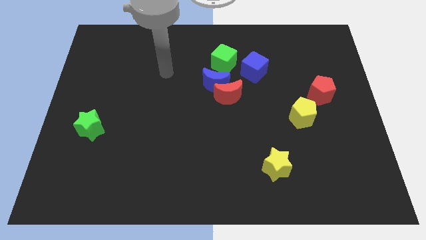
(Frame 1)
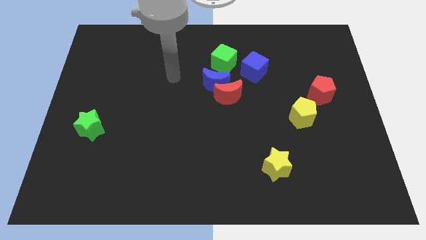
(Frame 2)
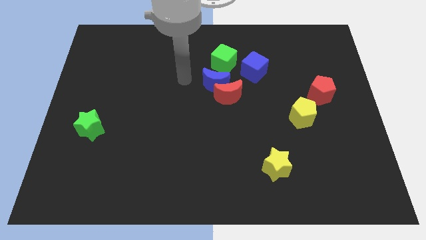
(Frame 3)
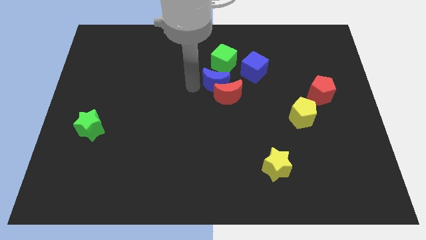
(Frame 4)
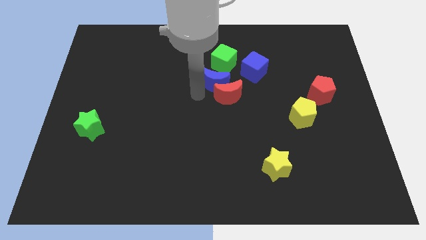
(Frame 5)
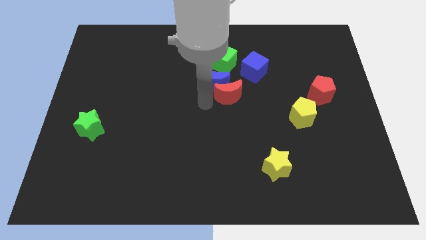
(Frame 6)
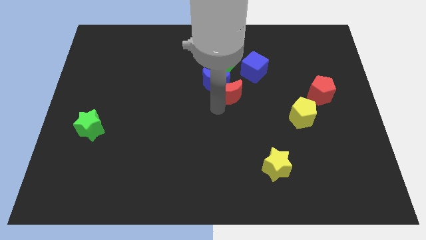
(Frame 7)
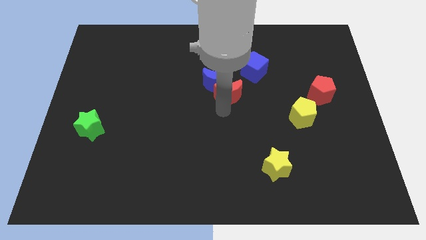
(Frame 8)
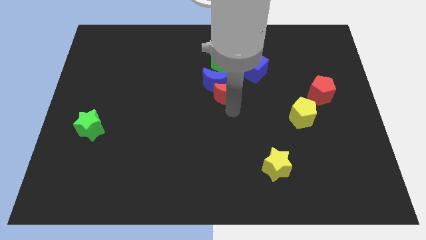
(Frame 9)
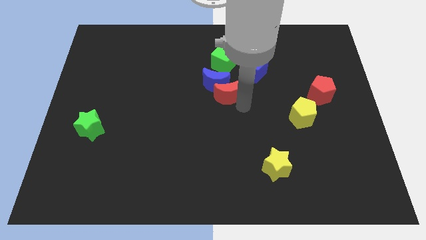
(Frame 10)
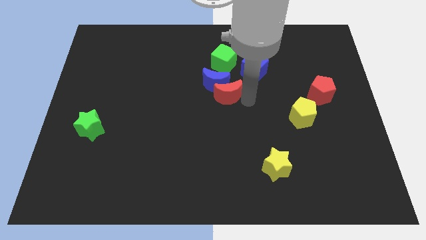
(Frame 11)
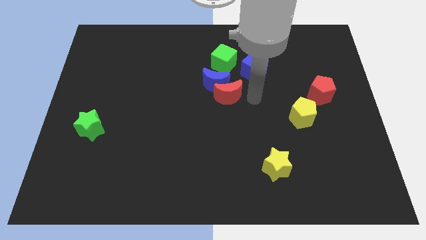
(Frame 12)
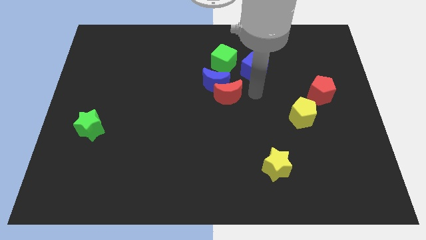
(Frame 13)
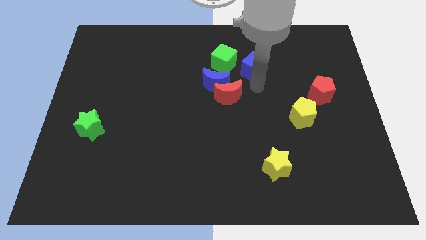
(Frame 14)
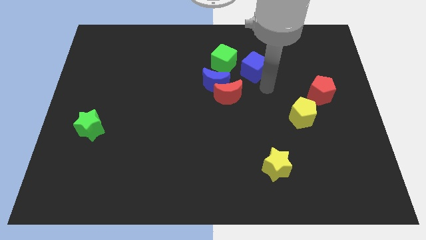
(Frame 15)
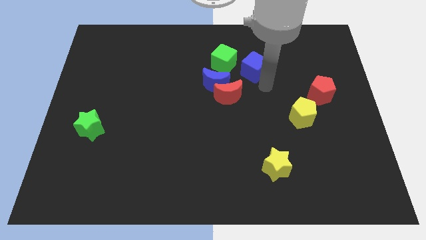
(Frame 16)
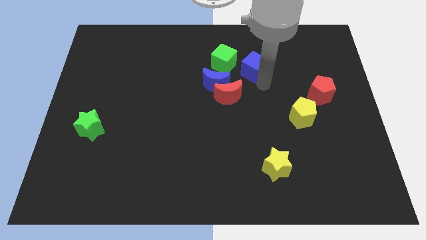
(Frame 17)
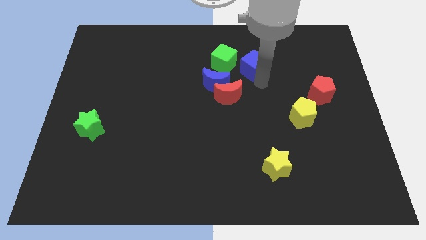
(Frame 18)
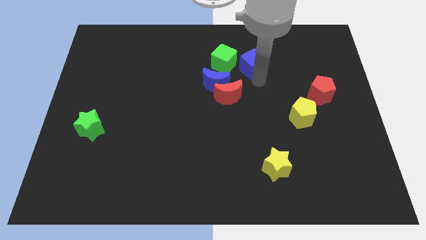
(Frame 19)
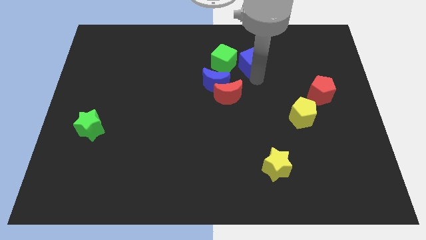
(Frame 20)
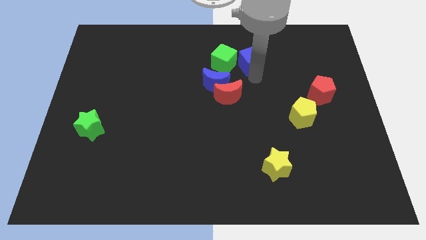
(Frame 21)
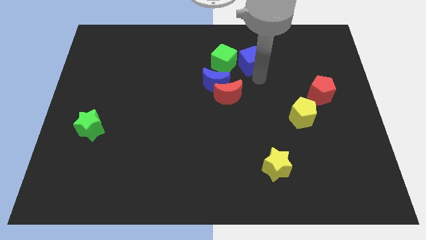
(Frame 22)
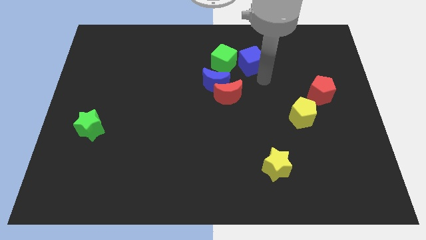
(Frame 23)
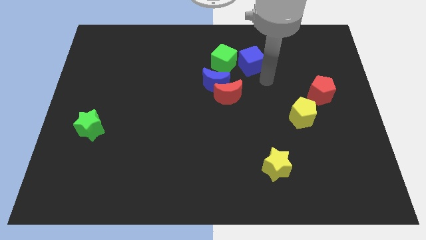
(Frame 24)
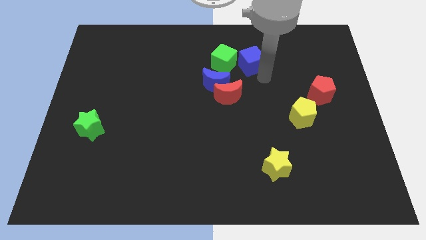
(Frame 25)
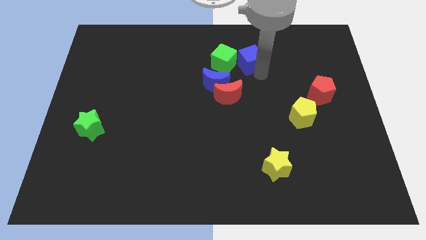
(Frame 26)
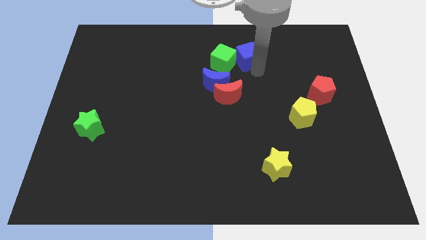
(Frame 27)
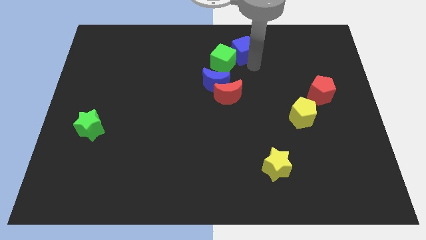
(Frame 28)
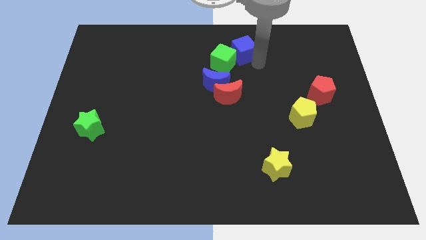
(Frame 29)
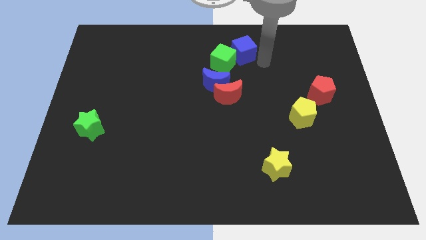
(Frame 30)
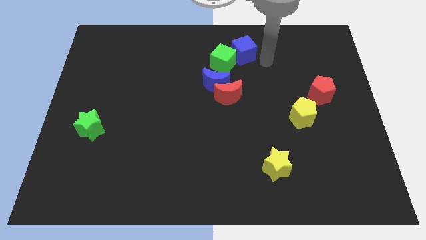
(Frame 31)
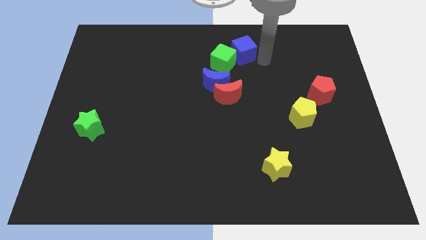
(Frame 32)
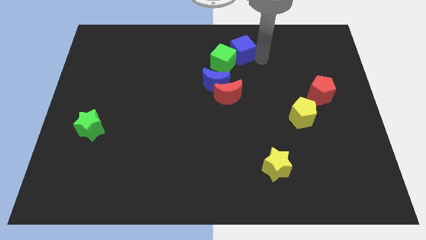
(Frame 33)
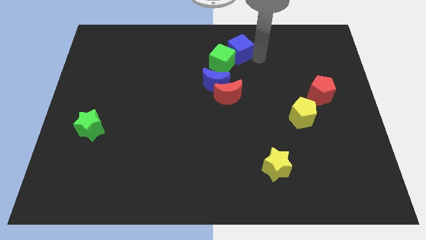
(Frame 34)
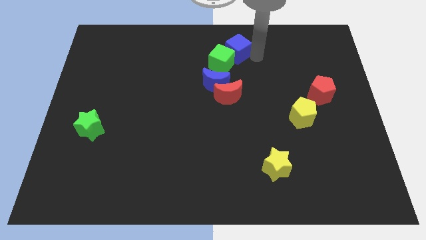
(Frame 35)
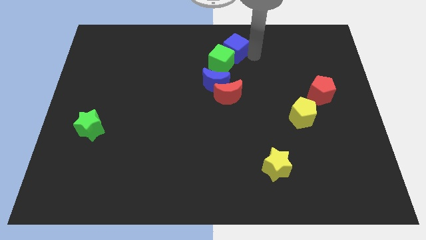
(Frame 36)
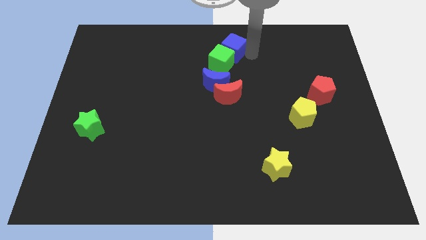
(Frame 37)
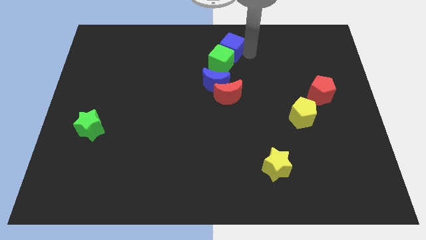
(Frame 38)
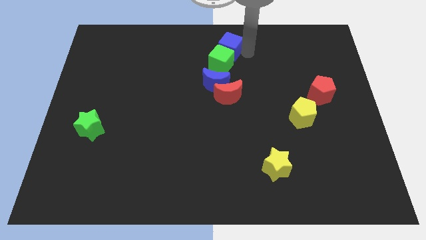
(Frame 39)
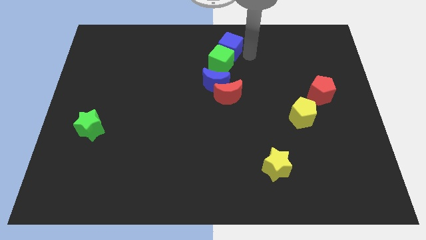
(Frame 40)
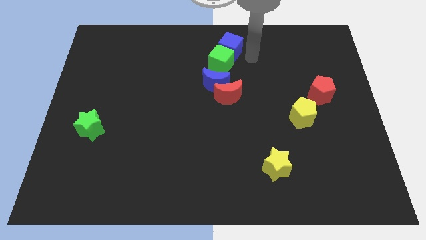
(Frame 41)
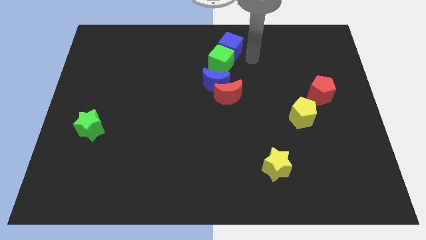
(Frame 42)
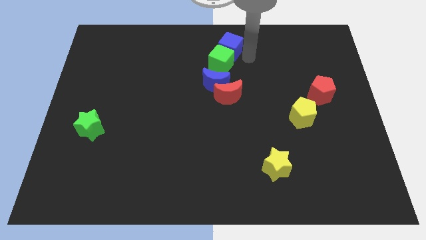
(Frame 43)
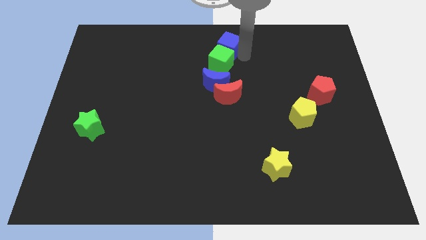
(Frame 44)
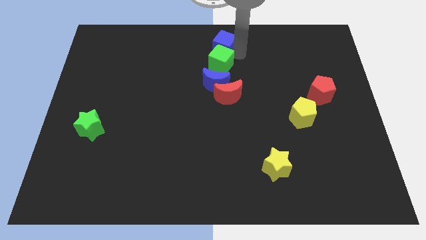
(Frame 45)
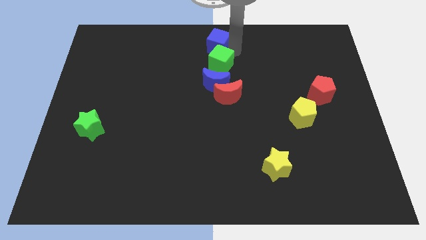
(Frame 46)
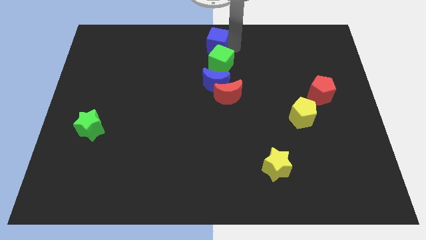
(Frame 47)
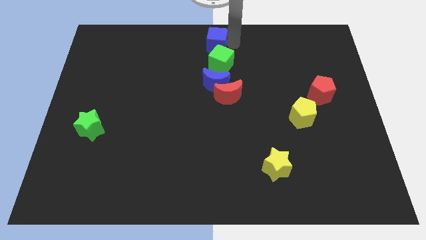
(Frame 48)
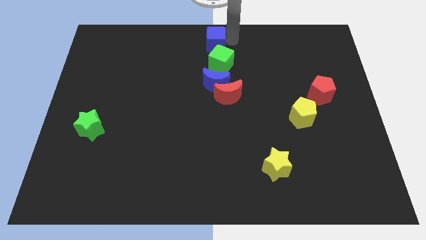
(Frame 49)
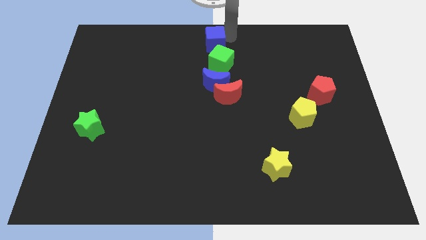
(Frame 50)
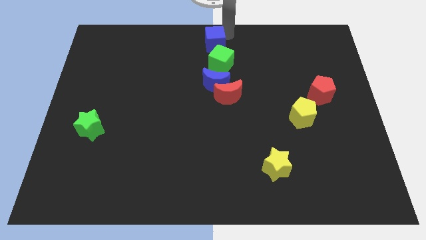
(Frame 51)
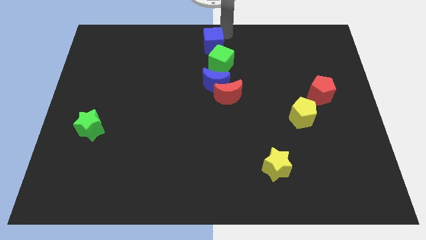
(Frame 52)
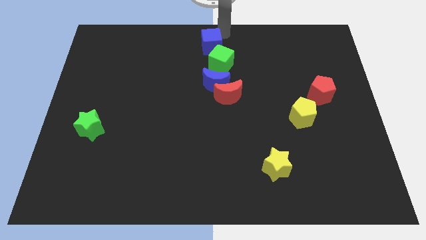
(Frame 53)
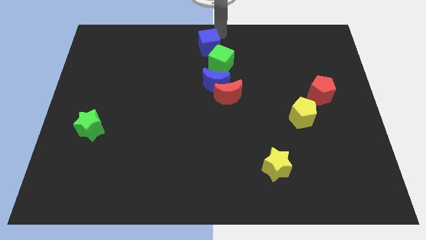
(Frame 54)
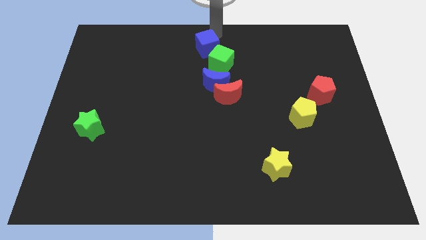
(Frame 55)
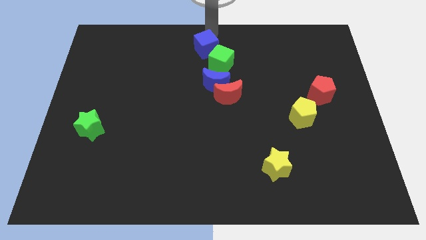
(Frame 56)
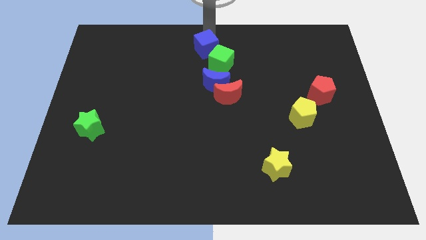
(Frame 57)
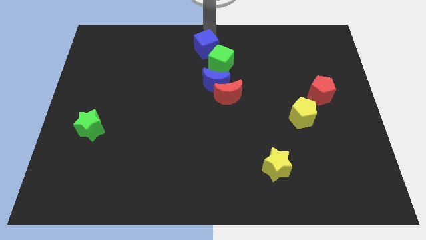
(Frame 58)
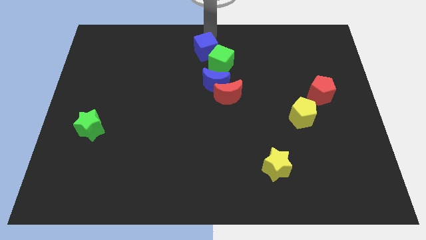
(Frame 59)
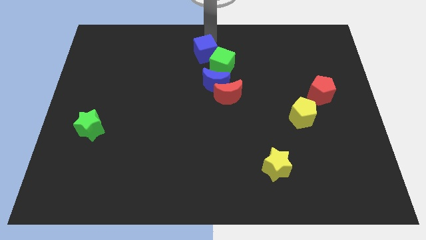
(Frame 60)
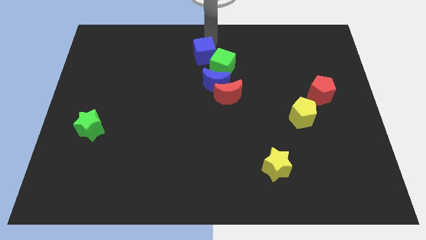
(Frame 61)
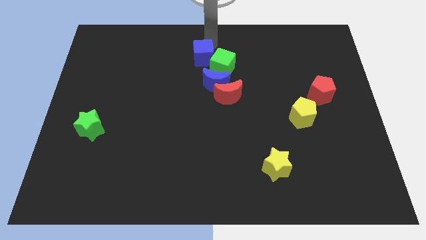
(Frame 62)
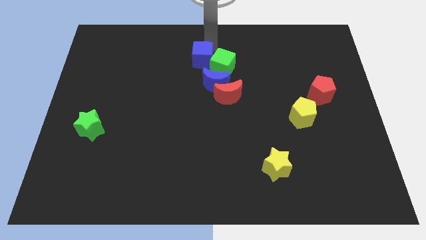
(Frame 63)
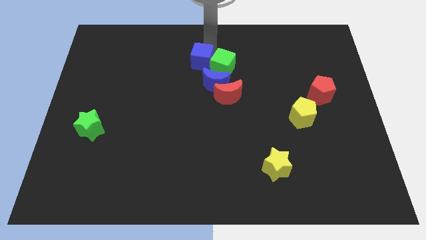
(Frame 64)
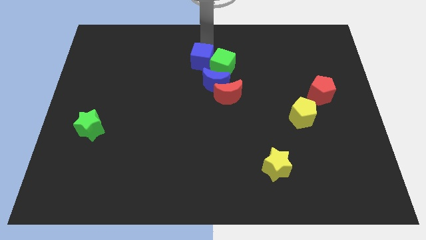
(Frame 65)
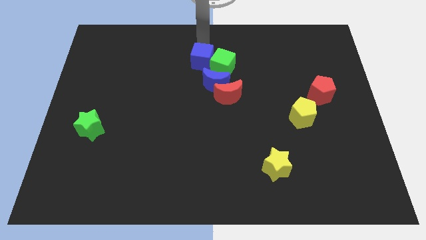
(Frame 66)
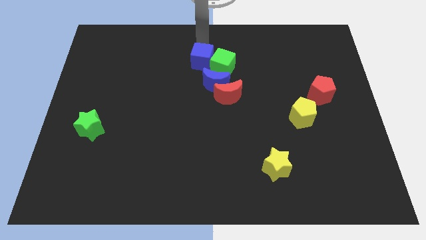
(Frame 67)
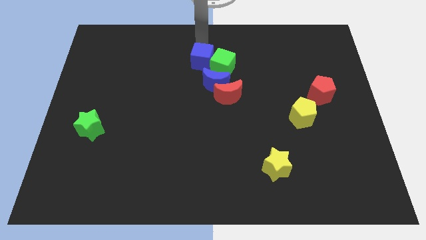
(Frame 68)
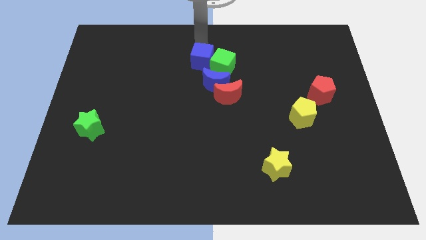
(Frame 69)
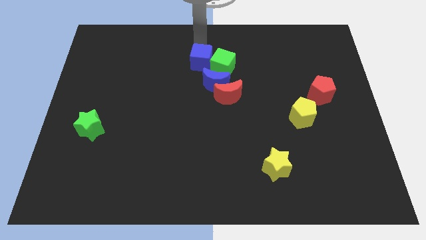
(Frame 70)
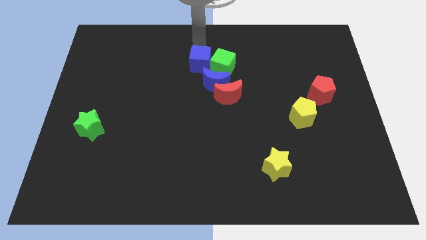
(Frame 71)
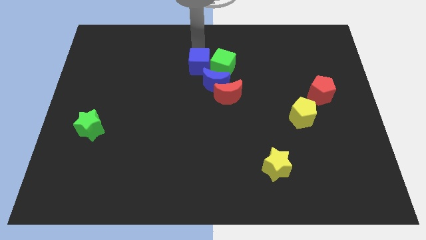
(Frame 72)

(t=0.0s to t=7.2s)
push the blue cube to the bottom left of the green cube
